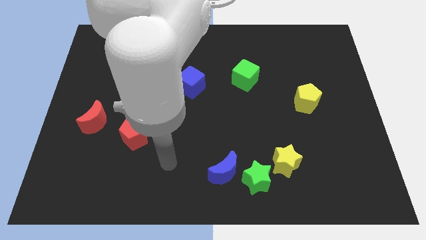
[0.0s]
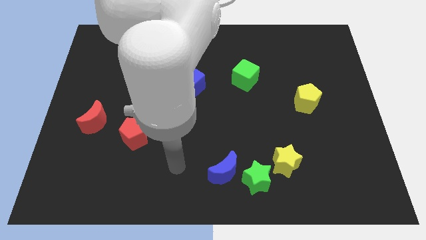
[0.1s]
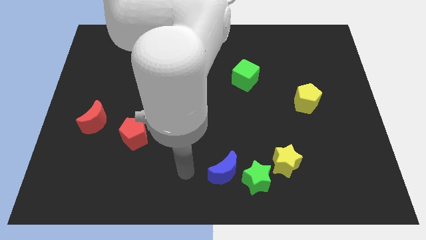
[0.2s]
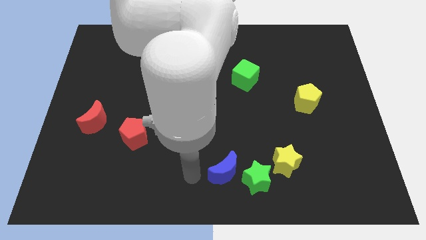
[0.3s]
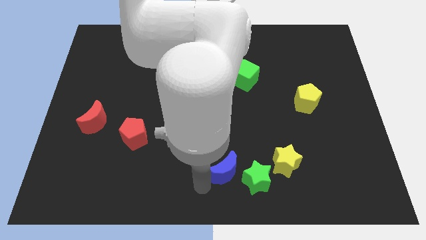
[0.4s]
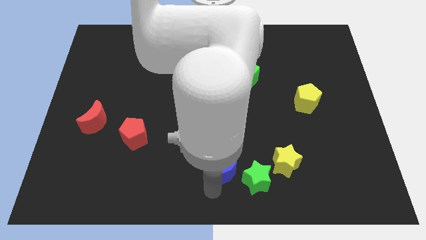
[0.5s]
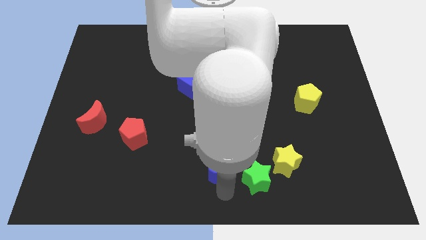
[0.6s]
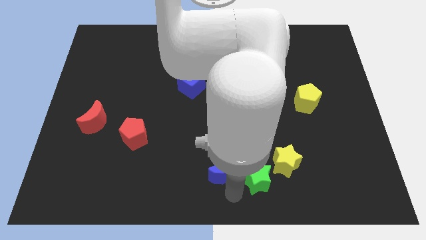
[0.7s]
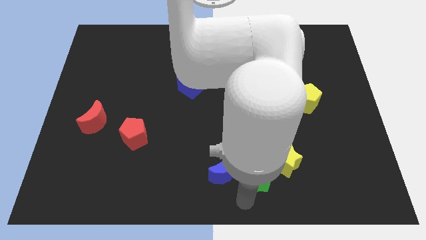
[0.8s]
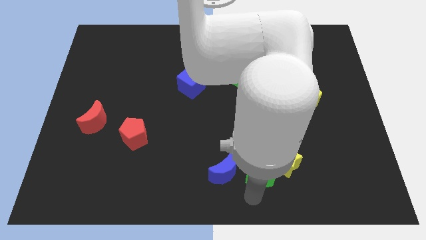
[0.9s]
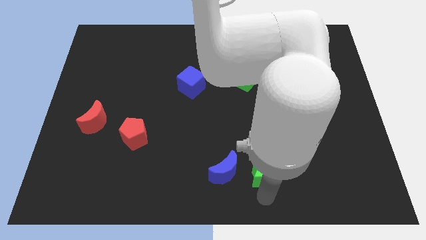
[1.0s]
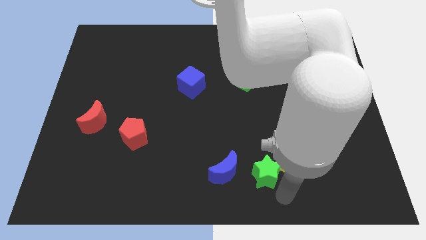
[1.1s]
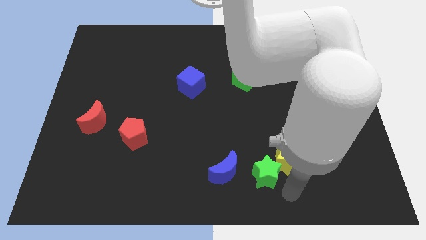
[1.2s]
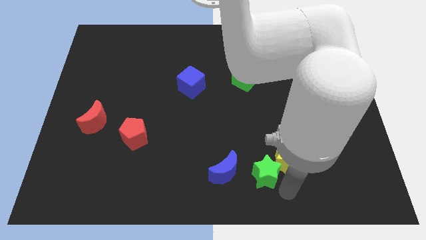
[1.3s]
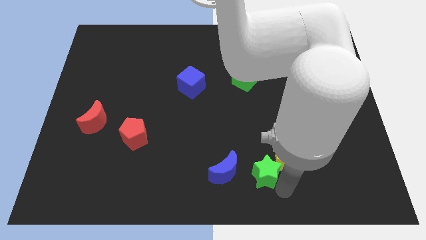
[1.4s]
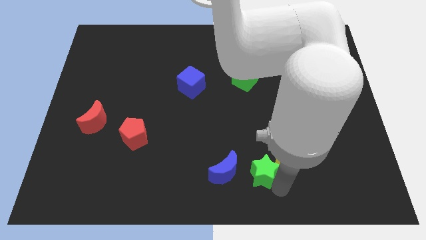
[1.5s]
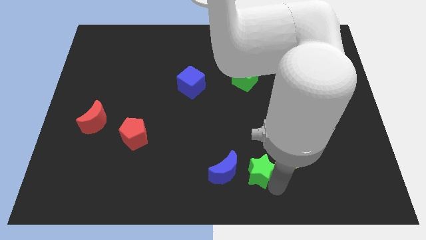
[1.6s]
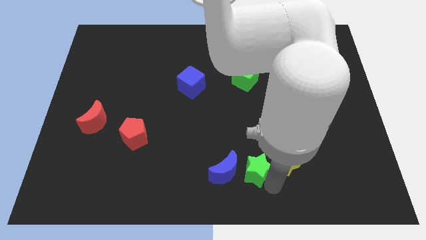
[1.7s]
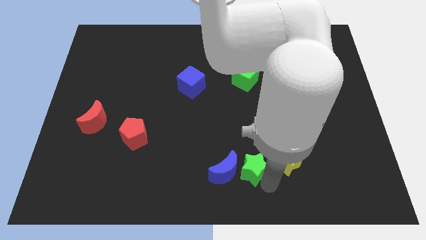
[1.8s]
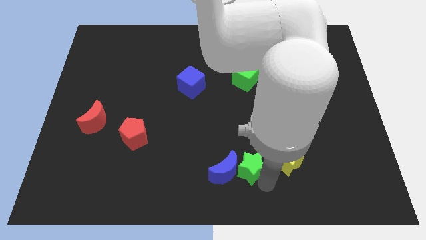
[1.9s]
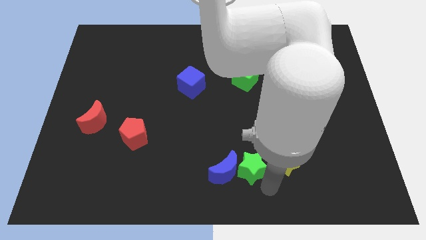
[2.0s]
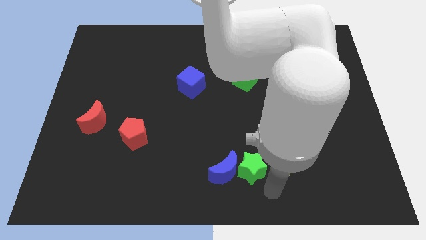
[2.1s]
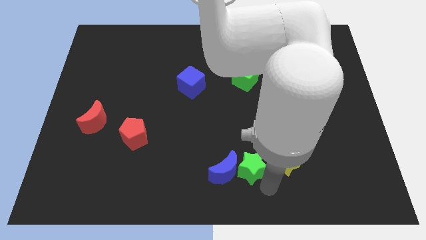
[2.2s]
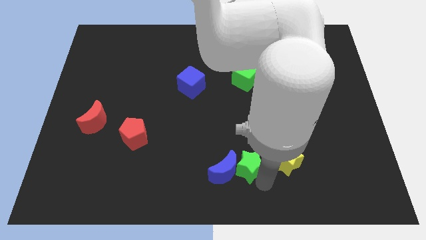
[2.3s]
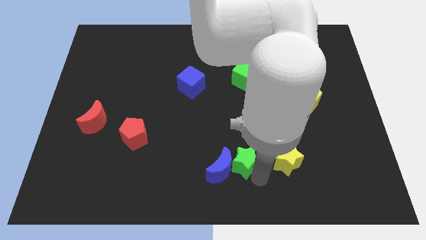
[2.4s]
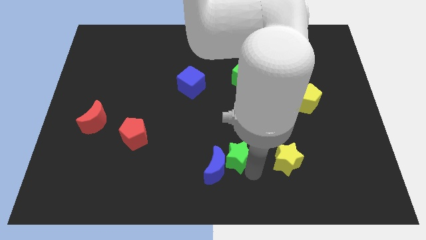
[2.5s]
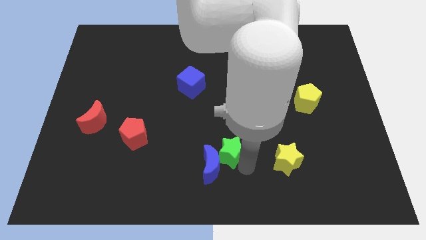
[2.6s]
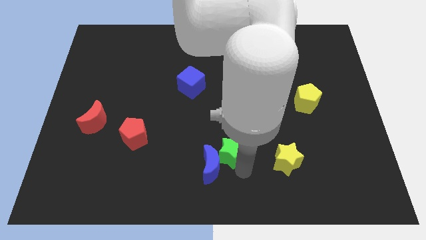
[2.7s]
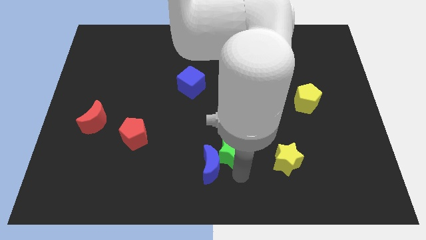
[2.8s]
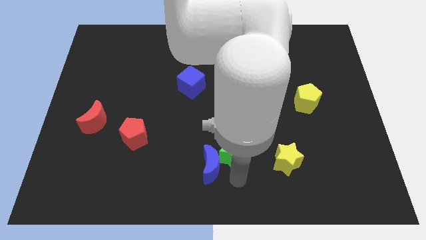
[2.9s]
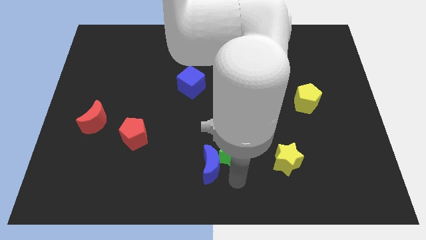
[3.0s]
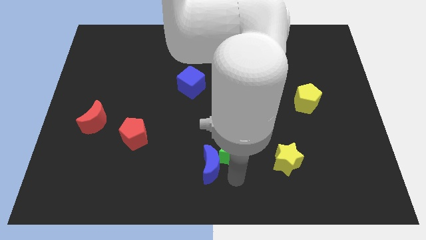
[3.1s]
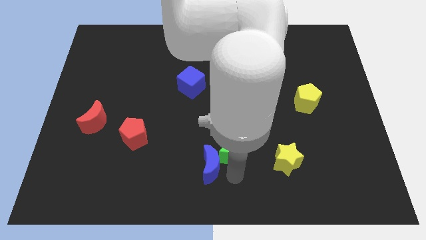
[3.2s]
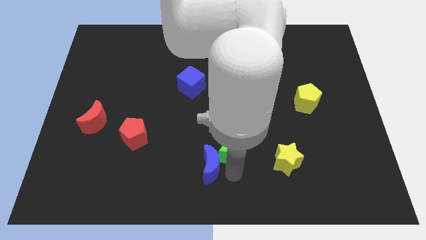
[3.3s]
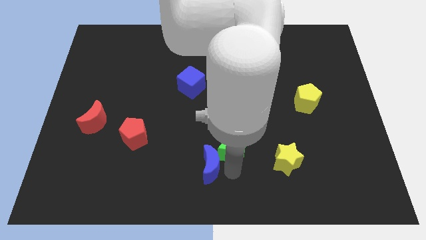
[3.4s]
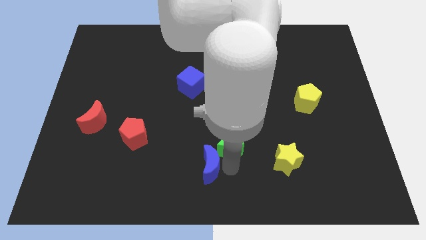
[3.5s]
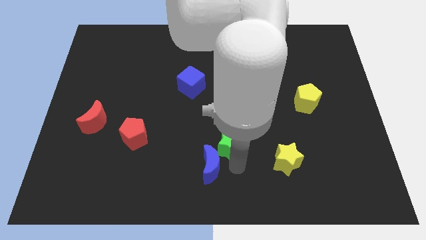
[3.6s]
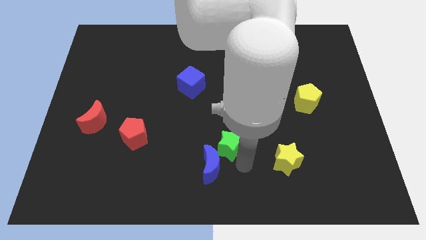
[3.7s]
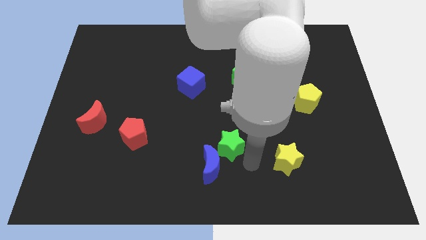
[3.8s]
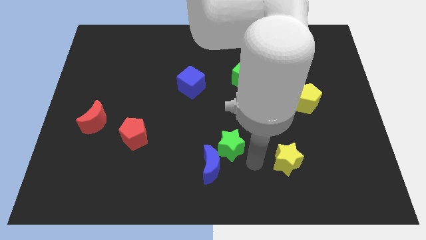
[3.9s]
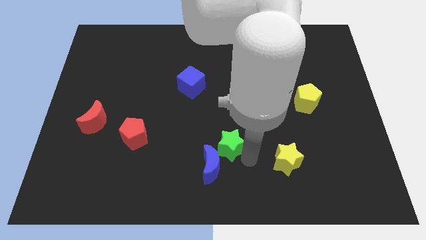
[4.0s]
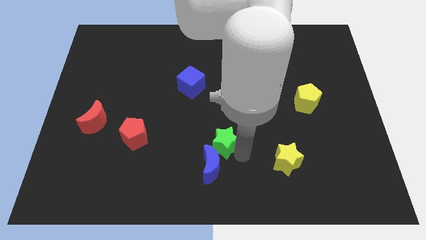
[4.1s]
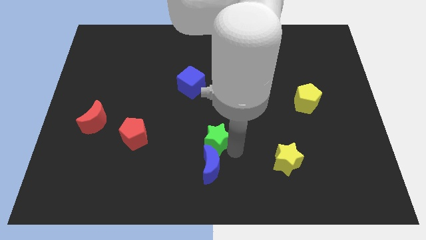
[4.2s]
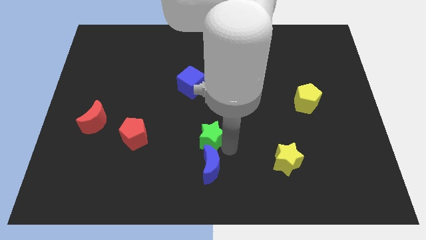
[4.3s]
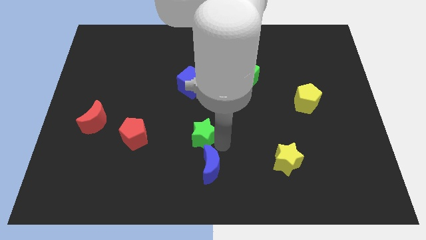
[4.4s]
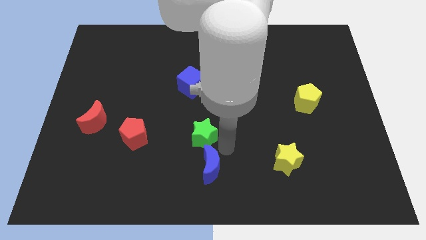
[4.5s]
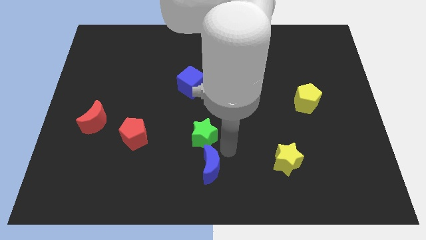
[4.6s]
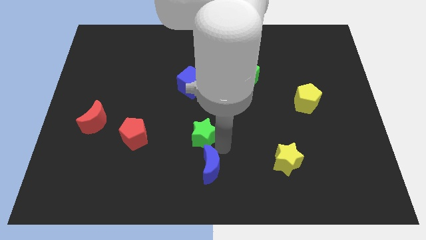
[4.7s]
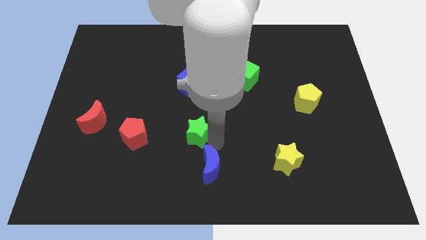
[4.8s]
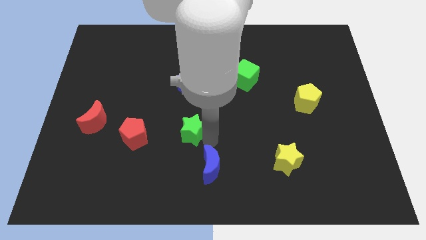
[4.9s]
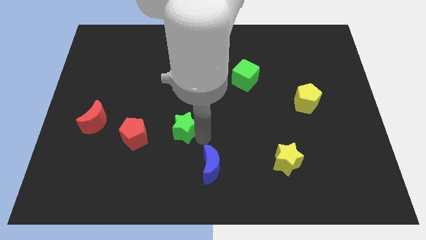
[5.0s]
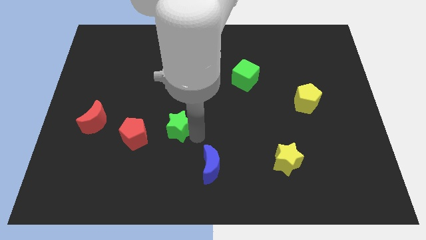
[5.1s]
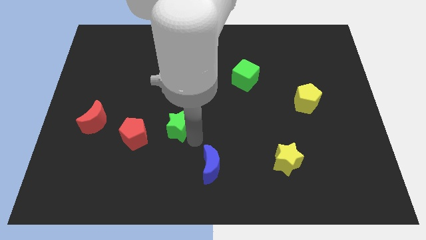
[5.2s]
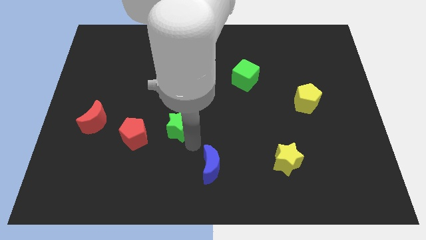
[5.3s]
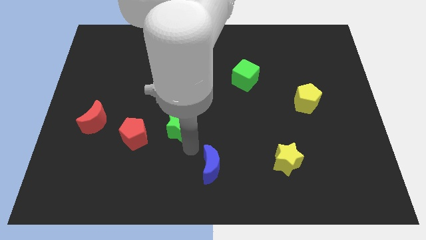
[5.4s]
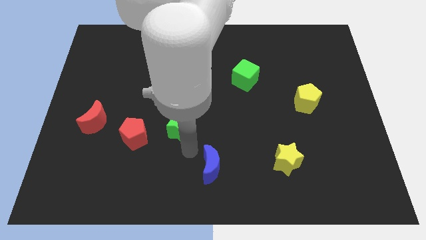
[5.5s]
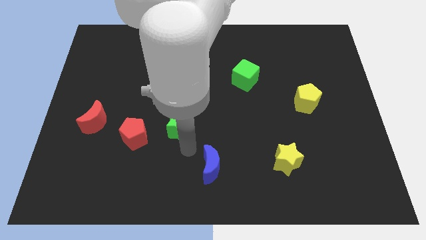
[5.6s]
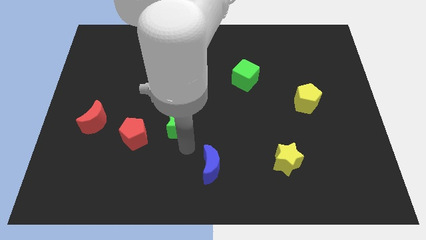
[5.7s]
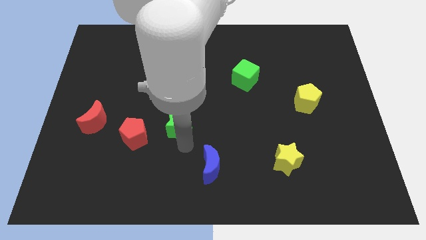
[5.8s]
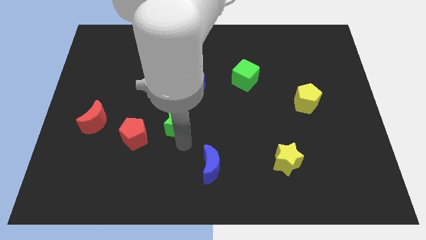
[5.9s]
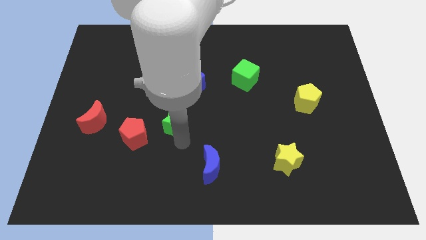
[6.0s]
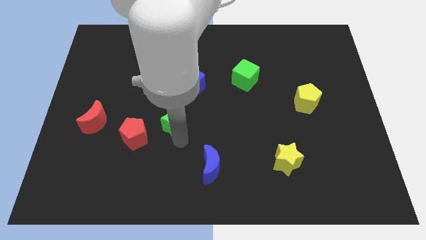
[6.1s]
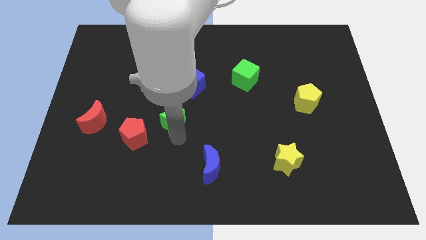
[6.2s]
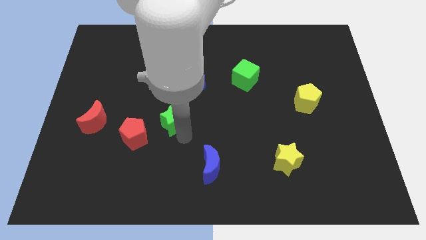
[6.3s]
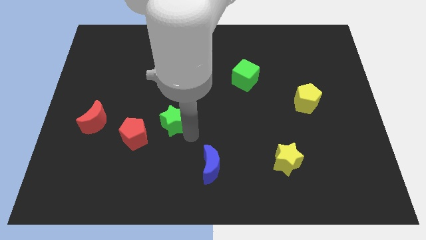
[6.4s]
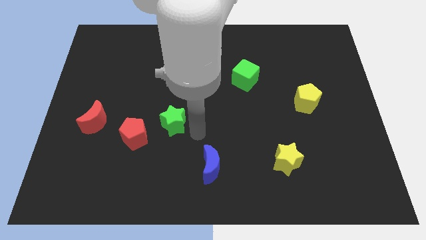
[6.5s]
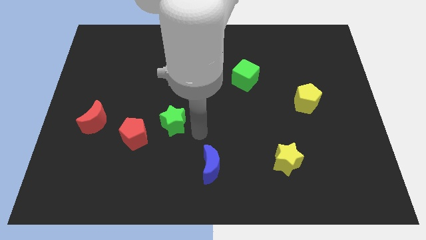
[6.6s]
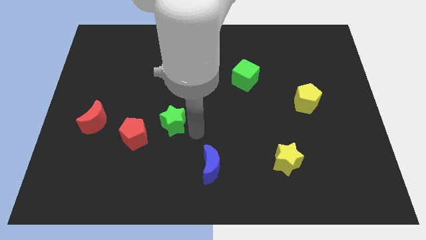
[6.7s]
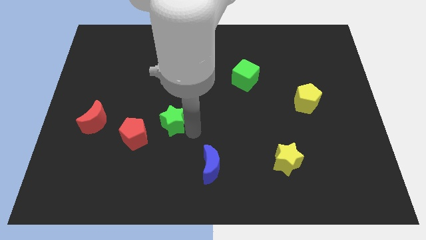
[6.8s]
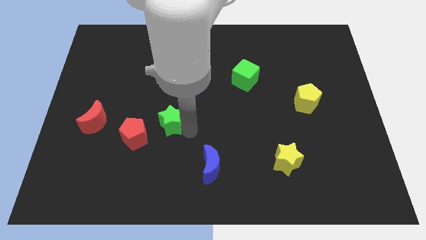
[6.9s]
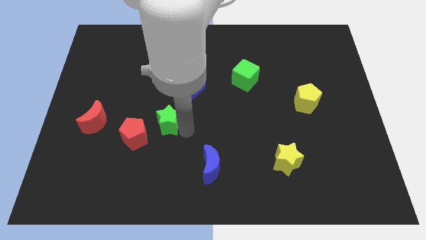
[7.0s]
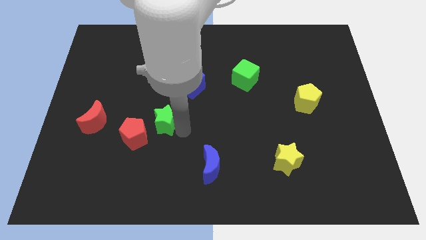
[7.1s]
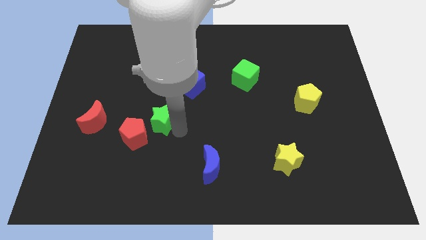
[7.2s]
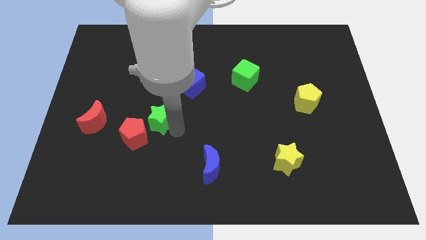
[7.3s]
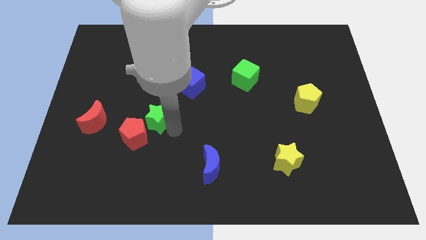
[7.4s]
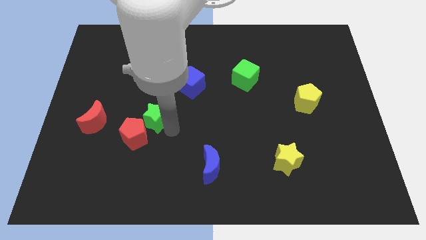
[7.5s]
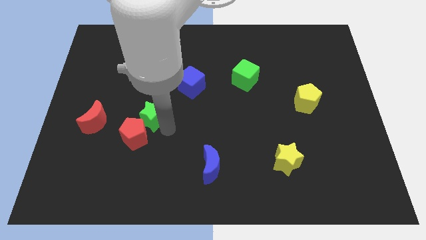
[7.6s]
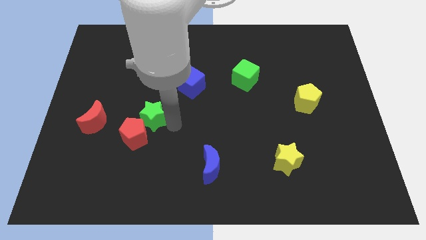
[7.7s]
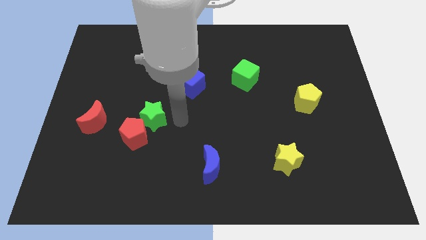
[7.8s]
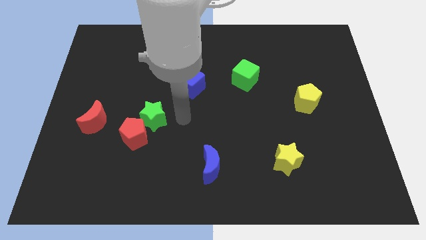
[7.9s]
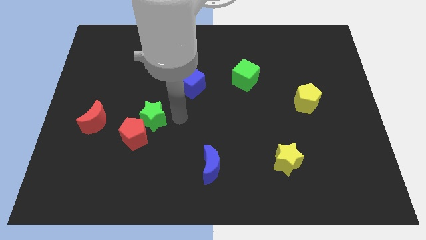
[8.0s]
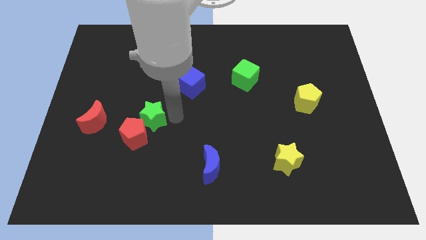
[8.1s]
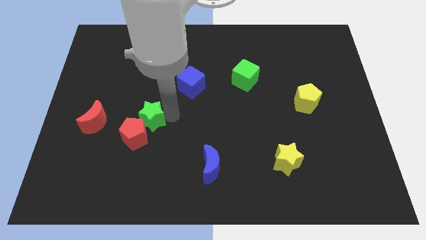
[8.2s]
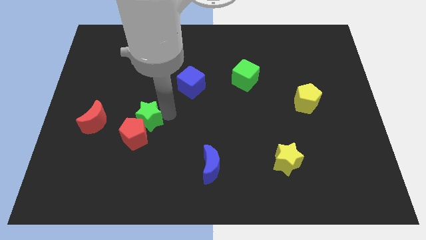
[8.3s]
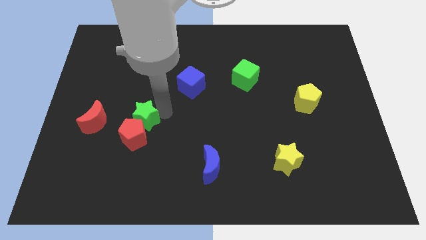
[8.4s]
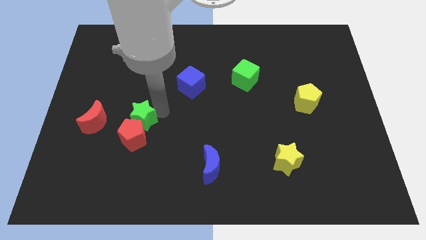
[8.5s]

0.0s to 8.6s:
push the green star to the top left of the red pentagon
